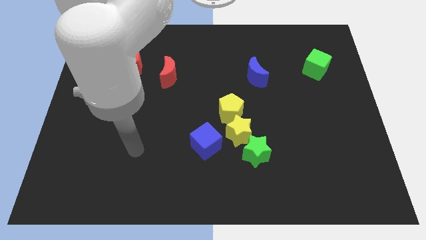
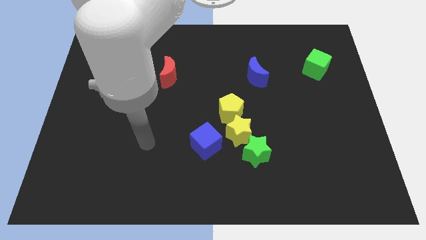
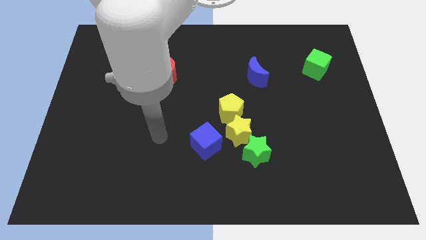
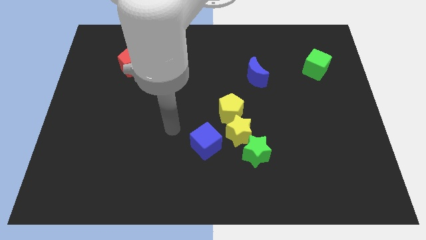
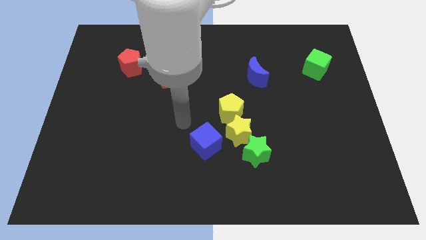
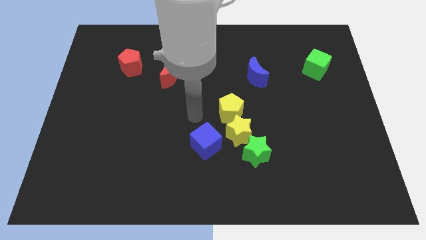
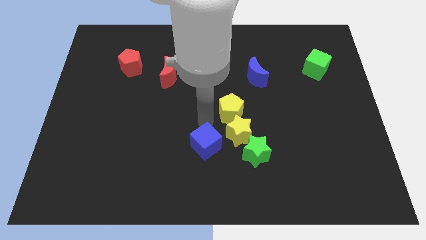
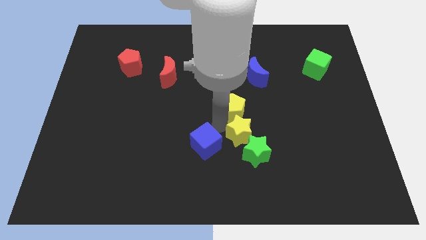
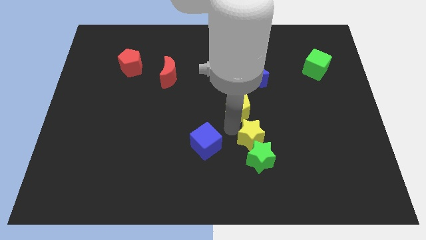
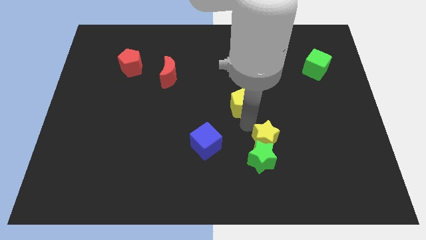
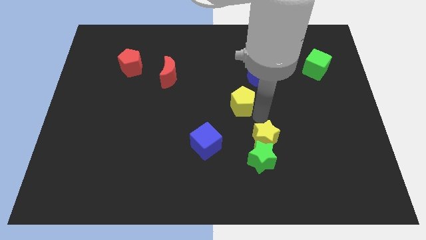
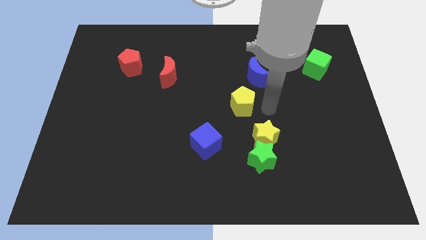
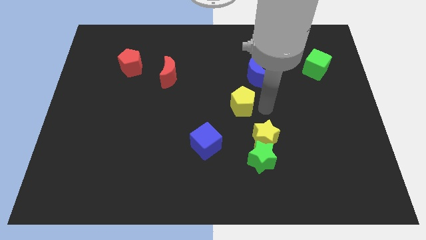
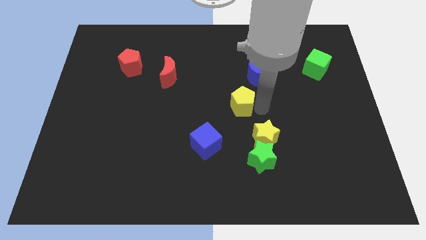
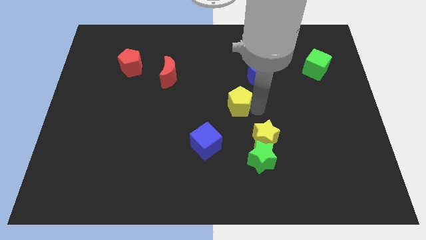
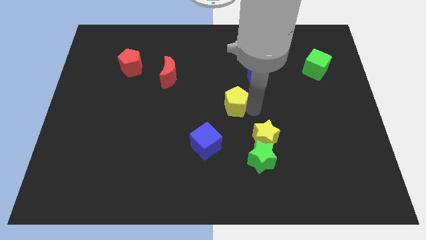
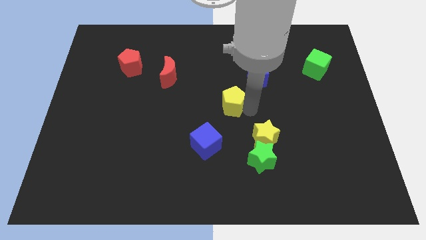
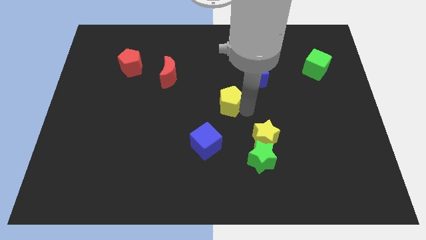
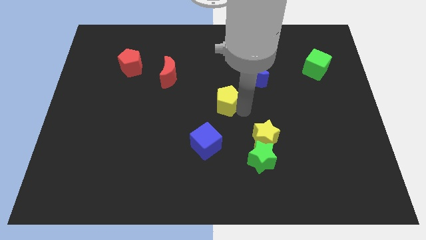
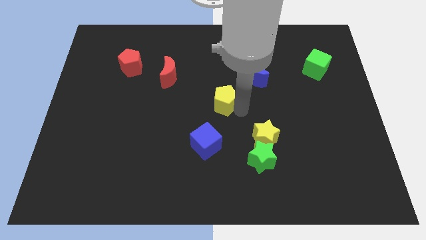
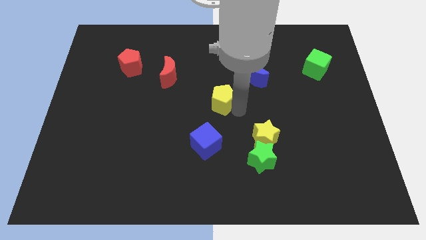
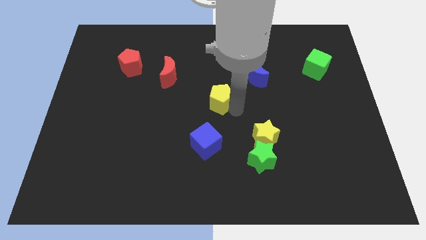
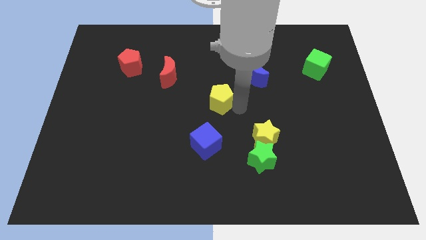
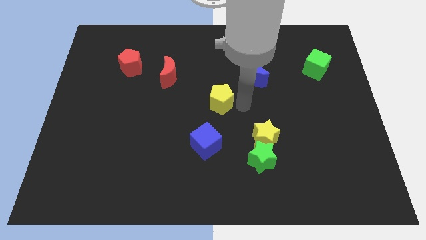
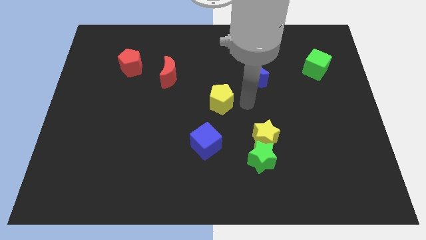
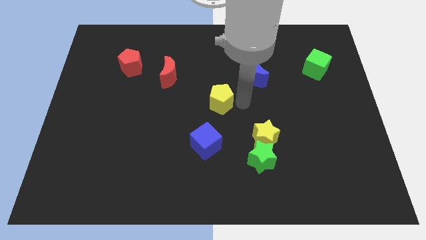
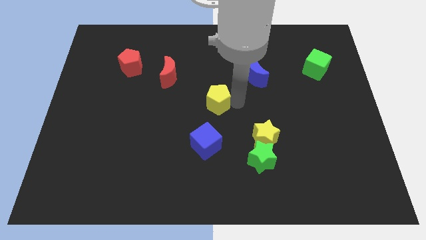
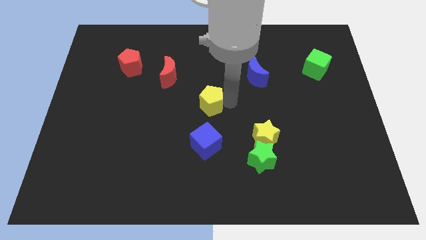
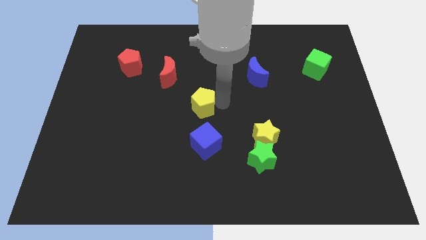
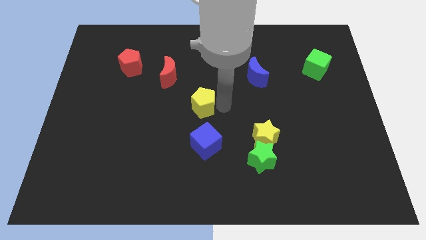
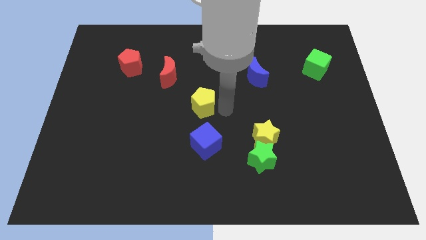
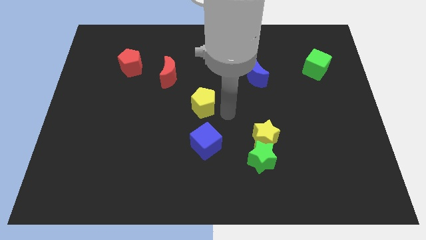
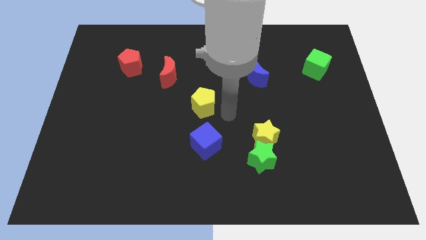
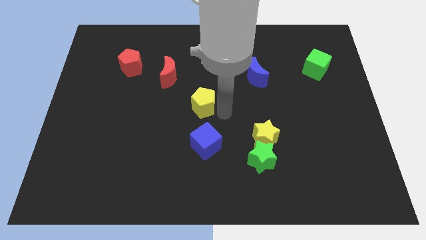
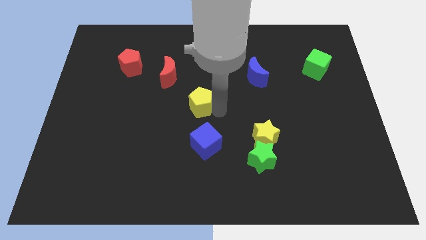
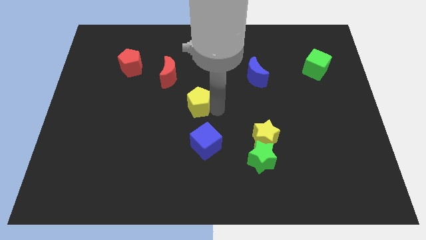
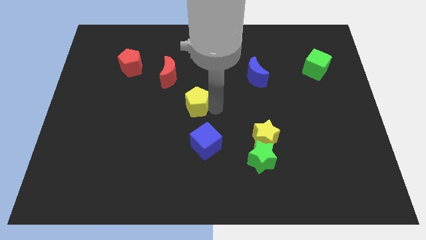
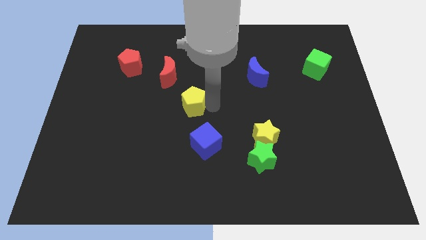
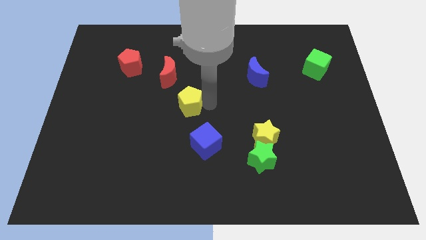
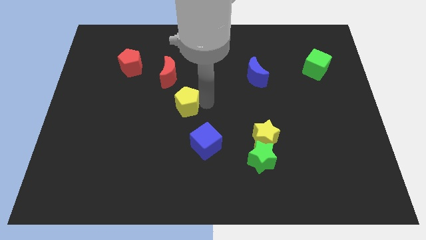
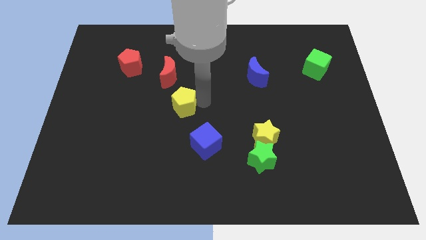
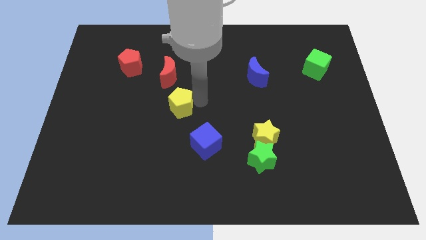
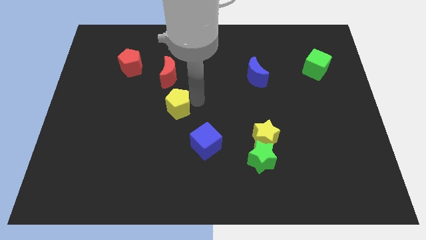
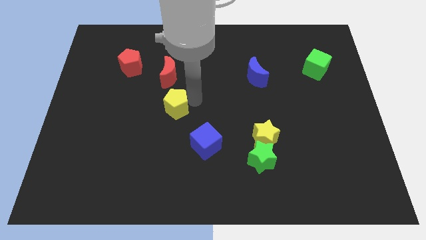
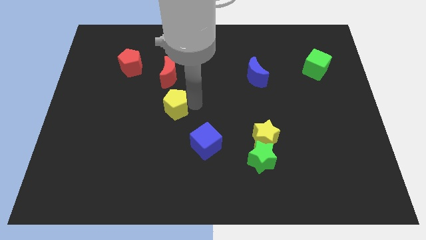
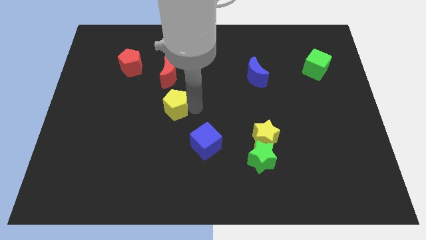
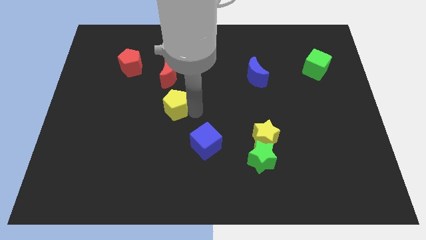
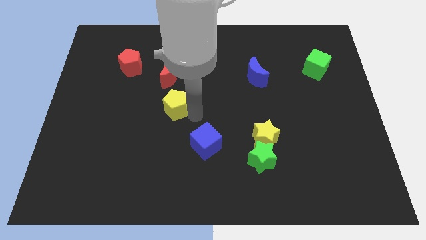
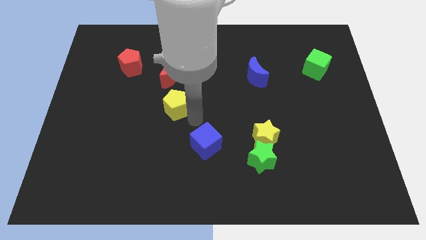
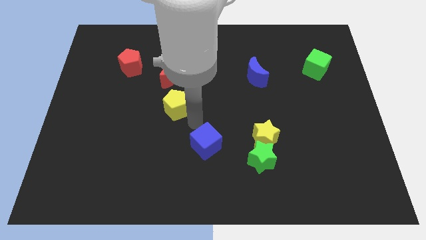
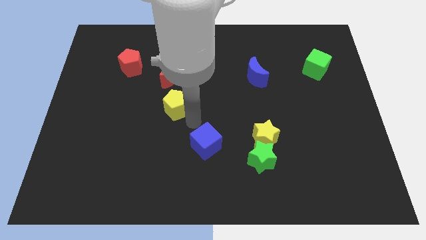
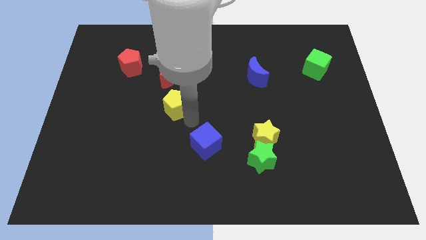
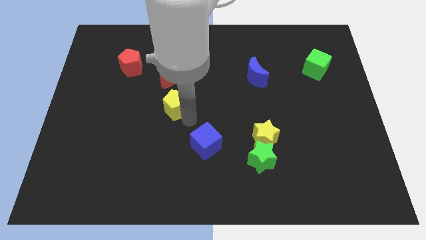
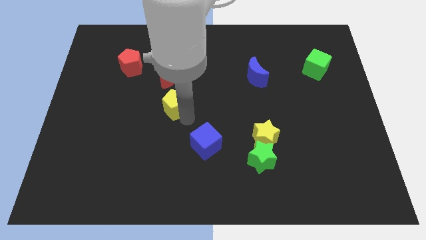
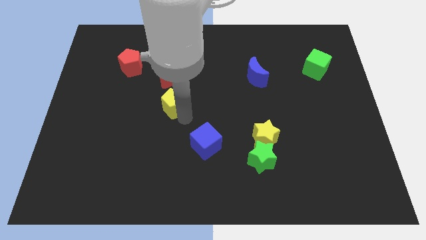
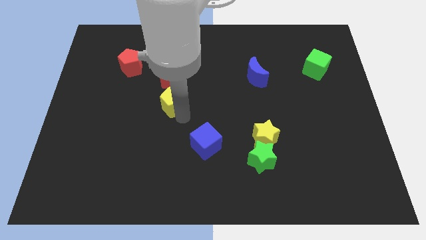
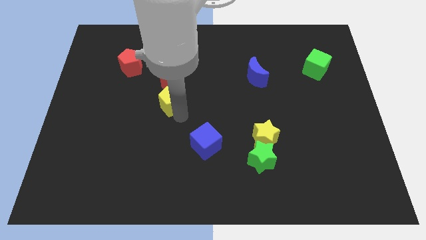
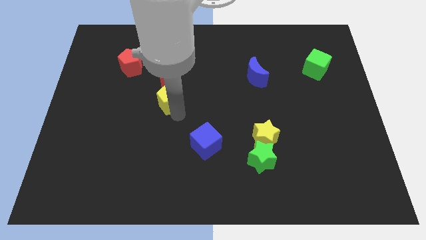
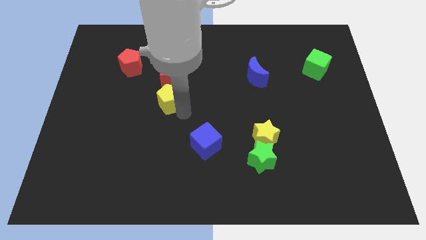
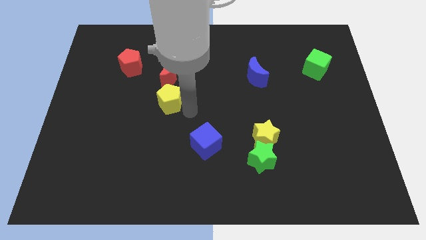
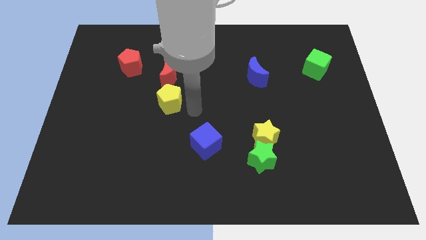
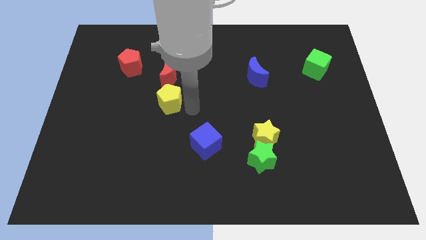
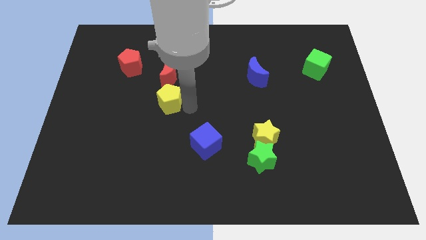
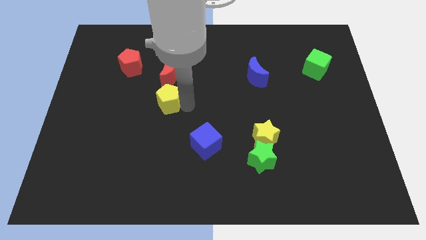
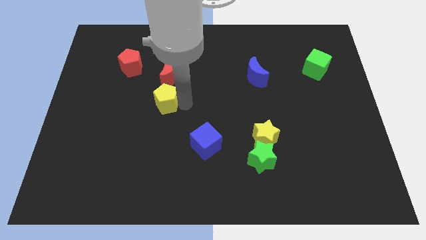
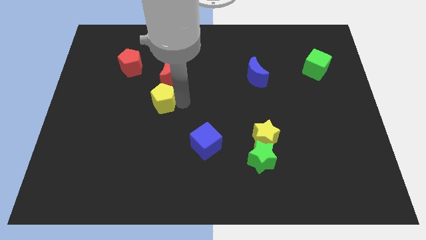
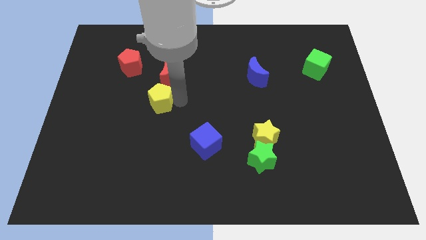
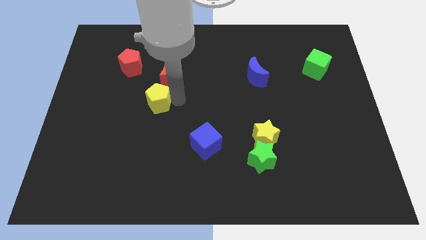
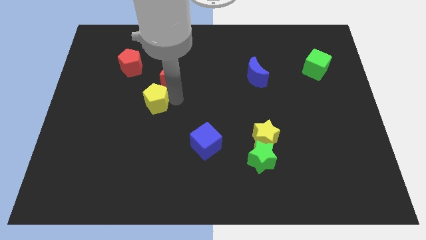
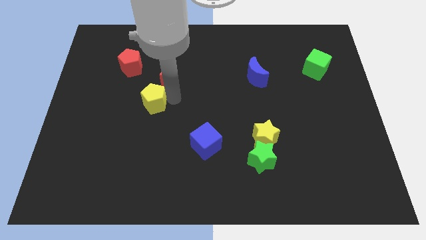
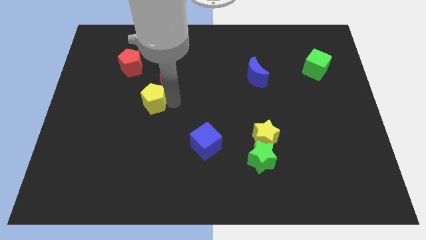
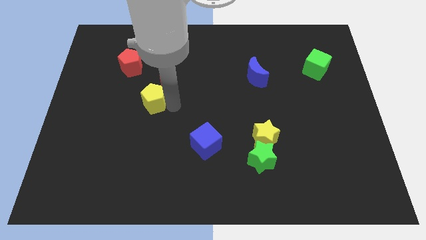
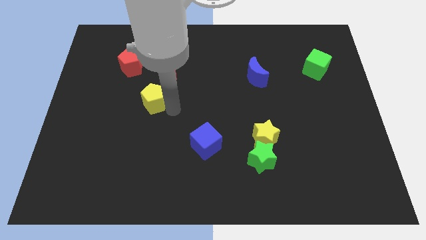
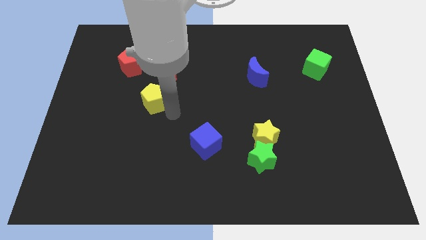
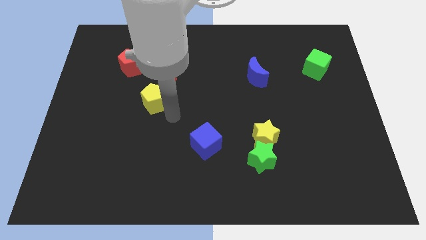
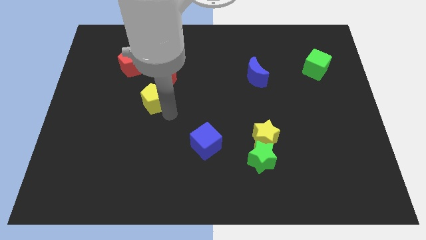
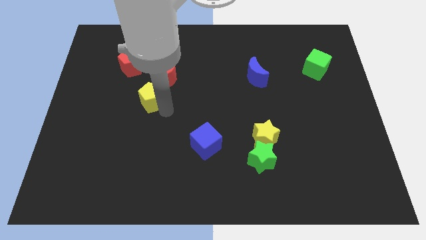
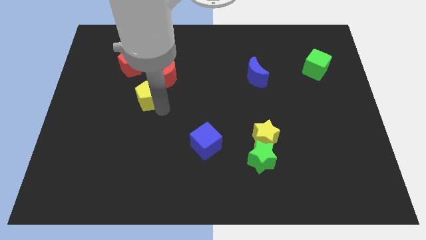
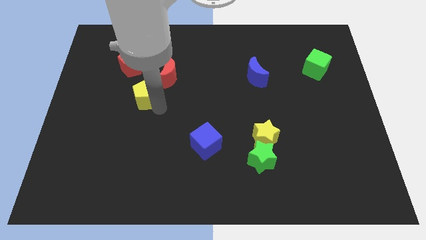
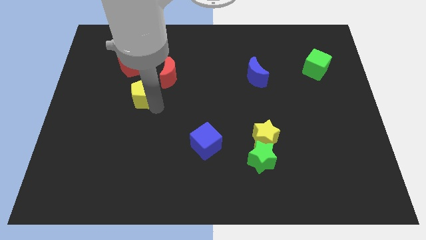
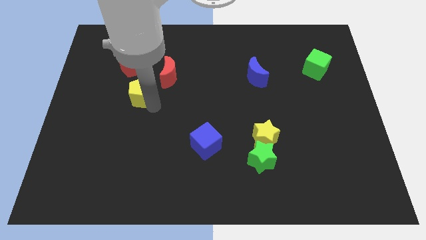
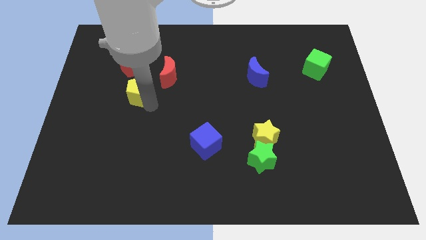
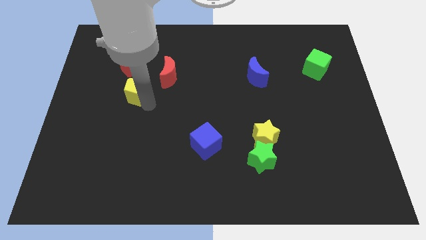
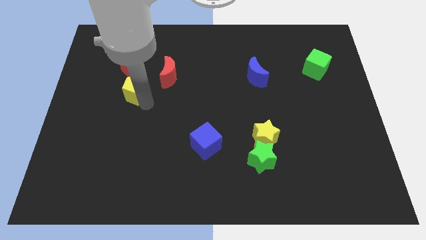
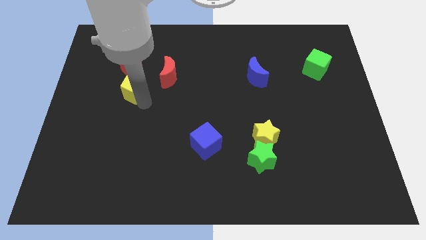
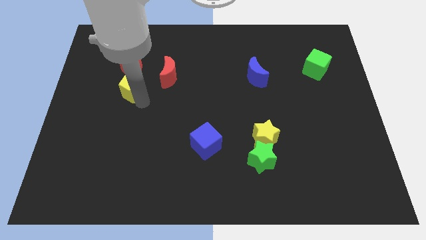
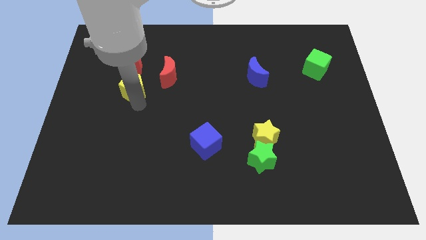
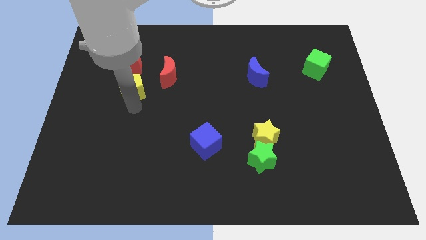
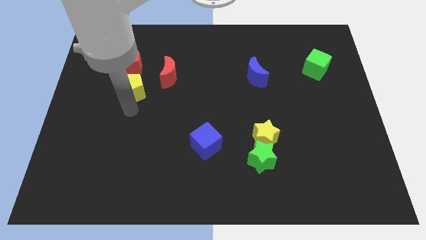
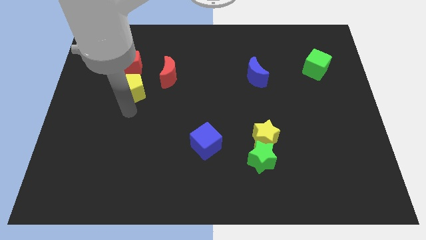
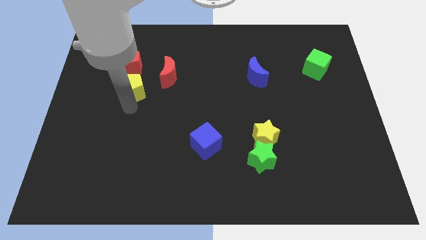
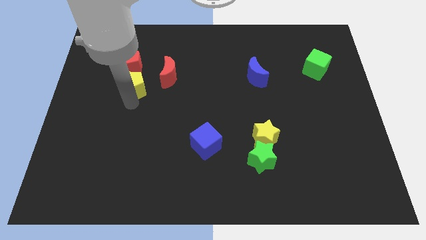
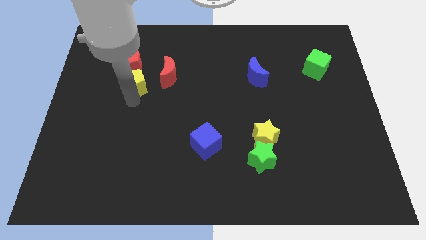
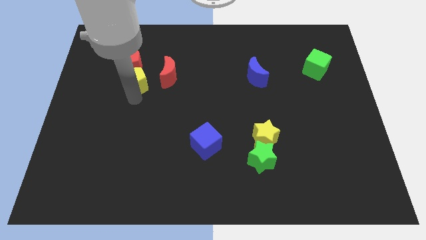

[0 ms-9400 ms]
push the yellow pentagon next to the red pentagon
